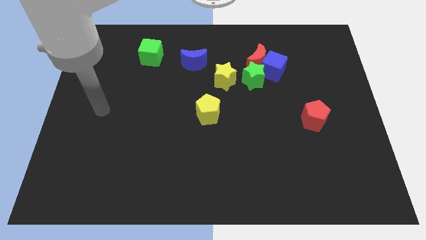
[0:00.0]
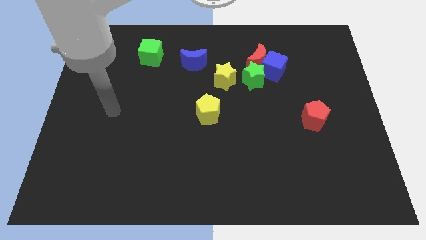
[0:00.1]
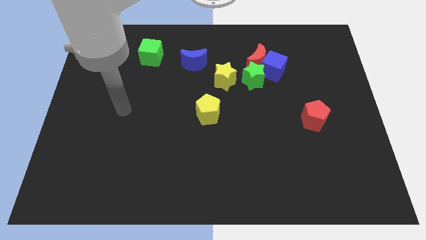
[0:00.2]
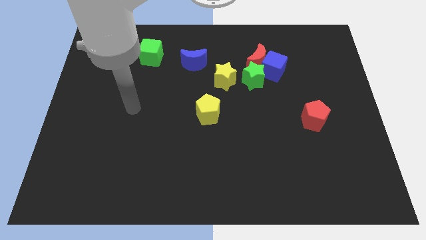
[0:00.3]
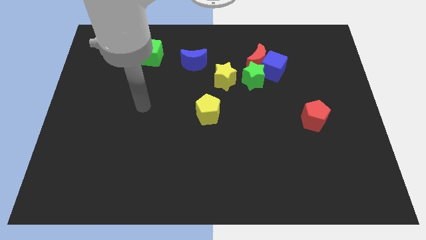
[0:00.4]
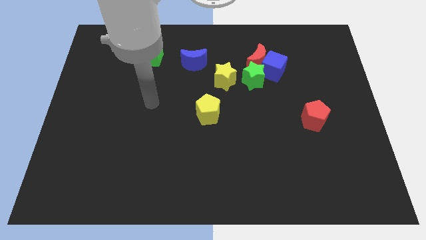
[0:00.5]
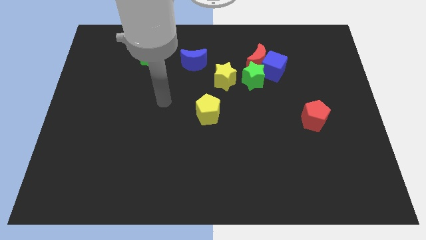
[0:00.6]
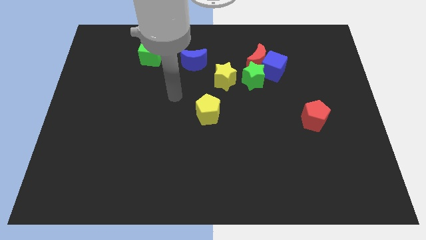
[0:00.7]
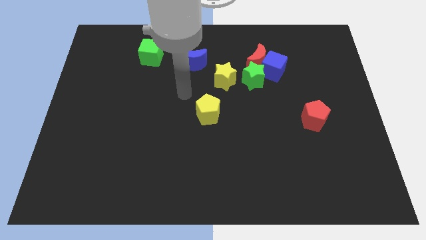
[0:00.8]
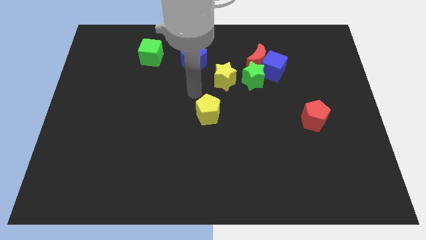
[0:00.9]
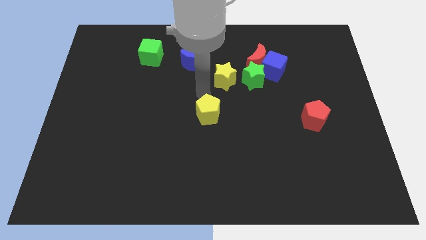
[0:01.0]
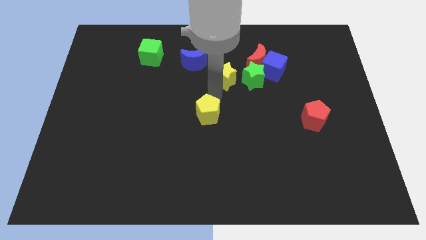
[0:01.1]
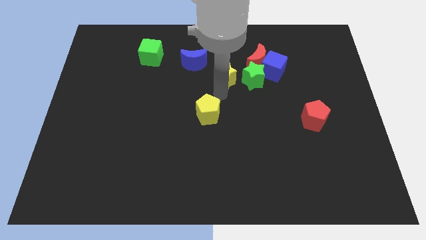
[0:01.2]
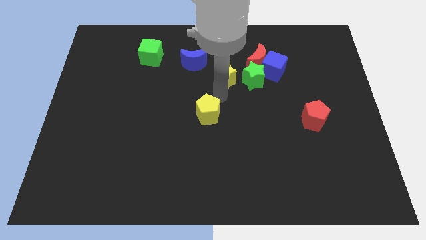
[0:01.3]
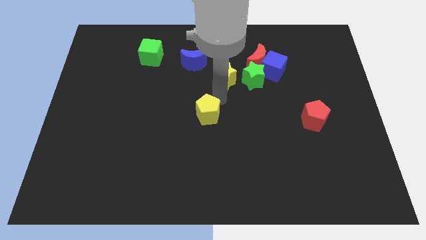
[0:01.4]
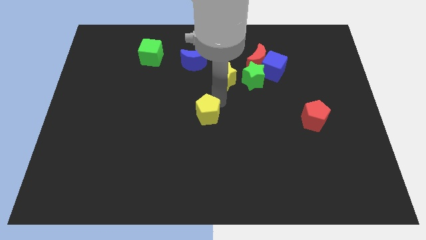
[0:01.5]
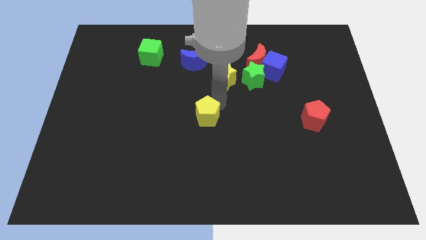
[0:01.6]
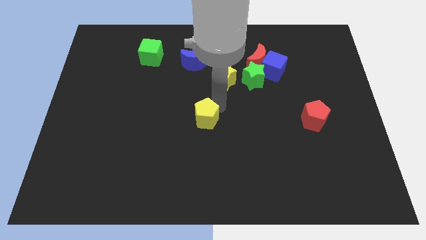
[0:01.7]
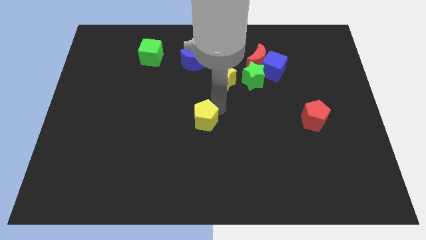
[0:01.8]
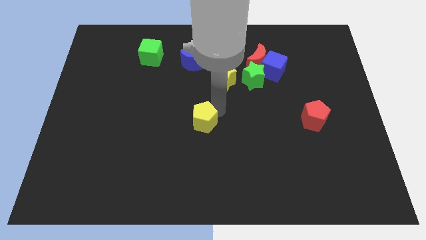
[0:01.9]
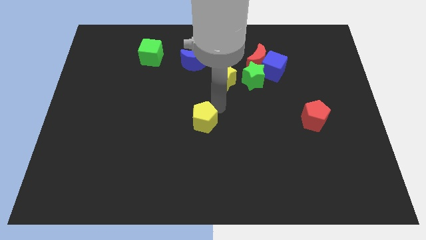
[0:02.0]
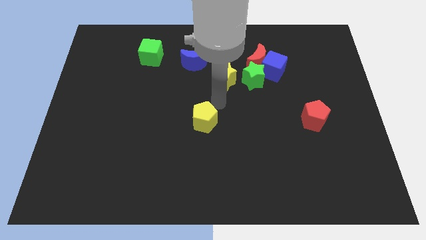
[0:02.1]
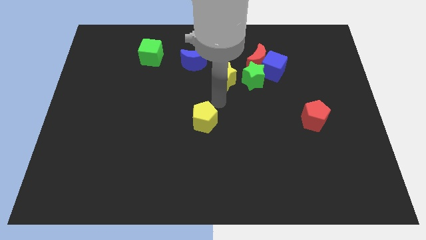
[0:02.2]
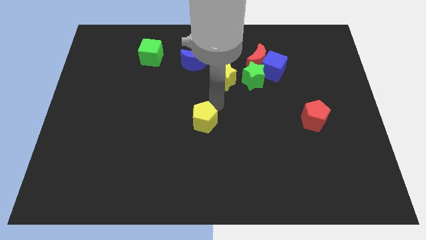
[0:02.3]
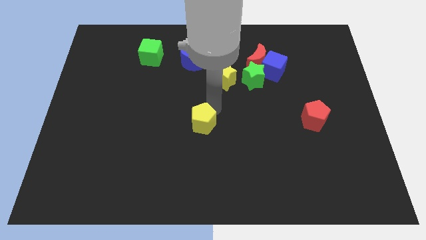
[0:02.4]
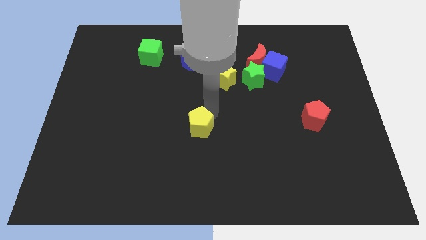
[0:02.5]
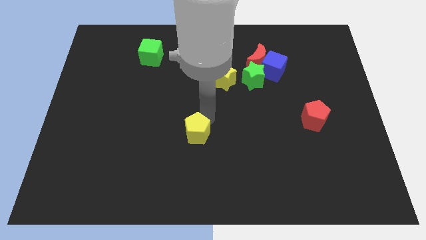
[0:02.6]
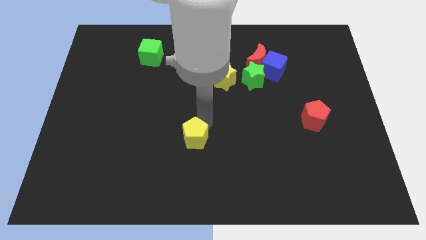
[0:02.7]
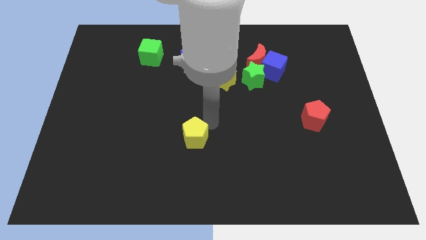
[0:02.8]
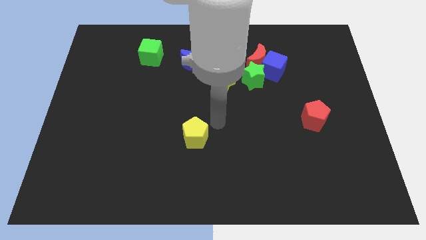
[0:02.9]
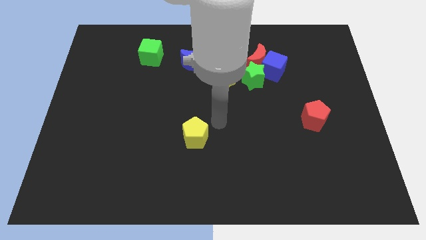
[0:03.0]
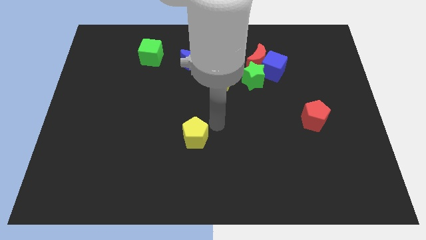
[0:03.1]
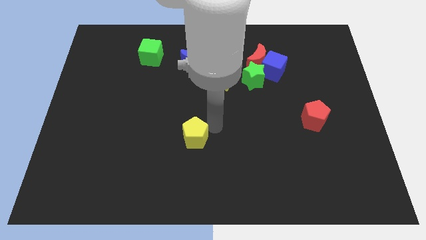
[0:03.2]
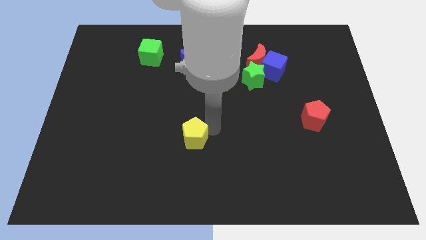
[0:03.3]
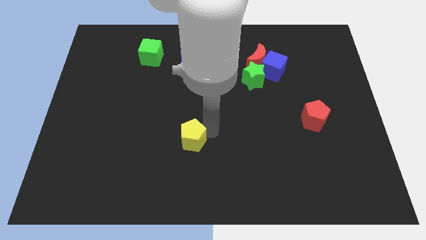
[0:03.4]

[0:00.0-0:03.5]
slide the yellow pentagon slightly down and to the left

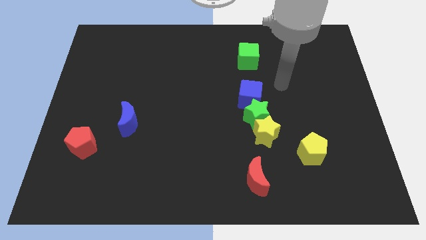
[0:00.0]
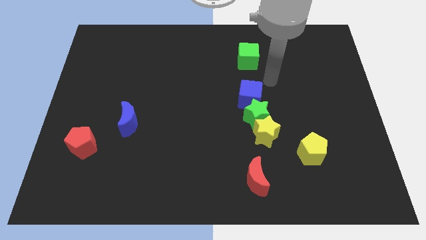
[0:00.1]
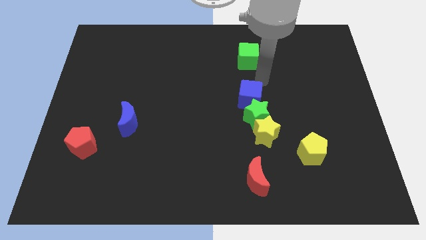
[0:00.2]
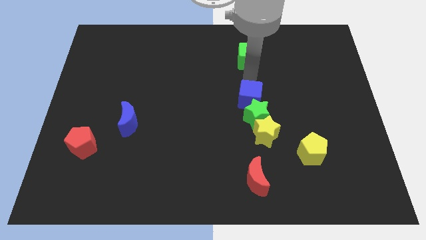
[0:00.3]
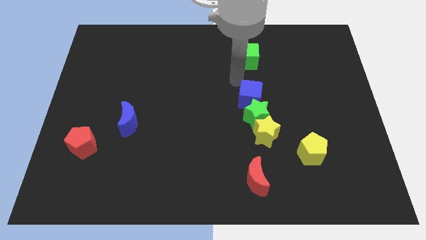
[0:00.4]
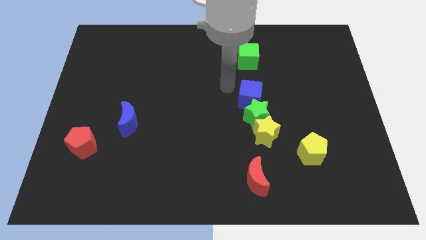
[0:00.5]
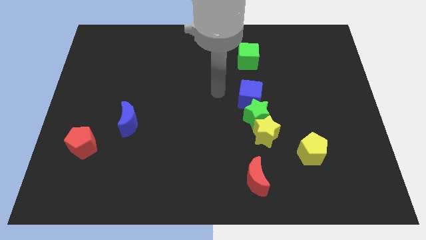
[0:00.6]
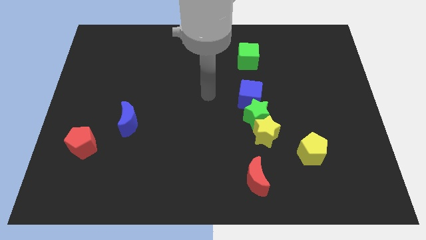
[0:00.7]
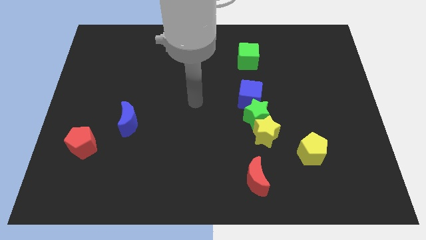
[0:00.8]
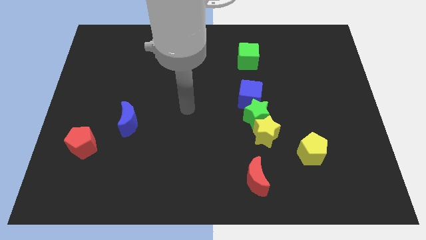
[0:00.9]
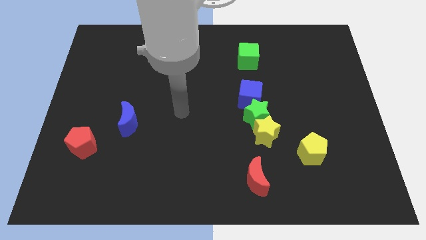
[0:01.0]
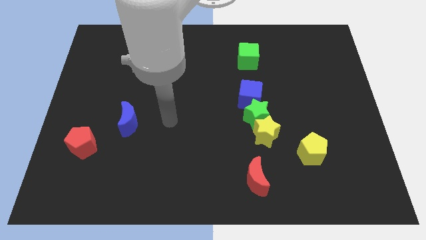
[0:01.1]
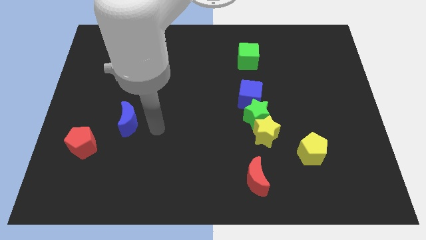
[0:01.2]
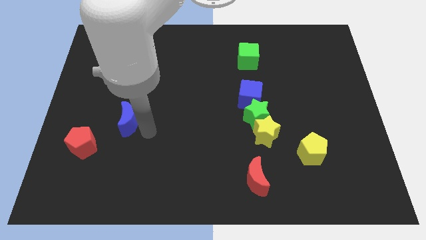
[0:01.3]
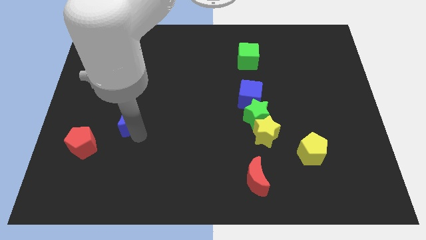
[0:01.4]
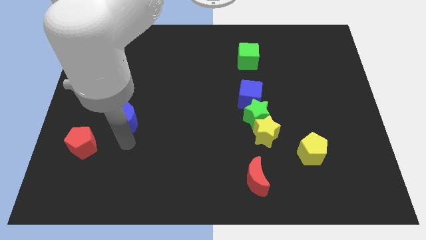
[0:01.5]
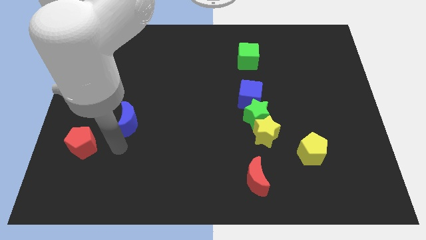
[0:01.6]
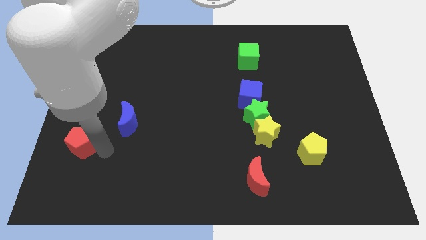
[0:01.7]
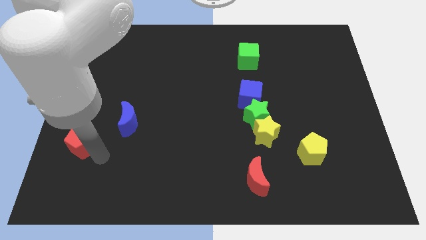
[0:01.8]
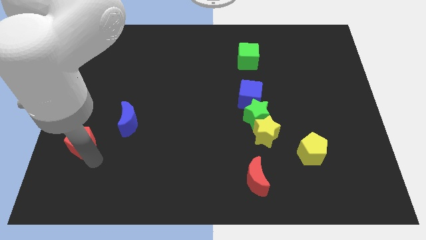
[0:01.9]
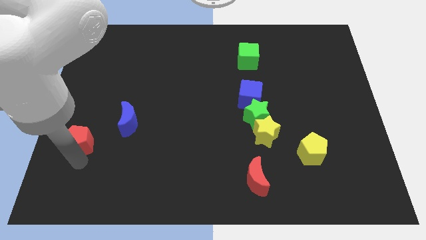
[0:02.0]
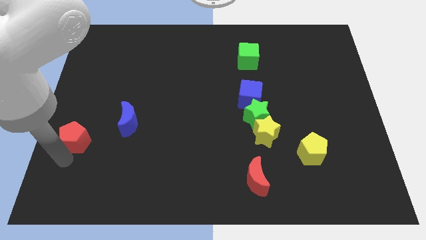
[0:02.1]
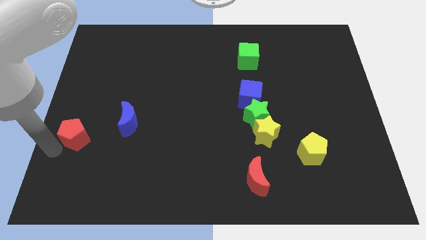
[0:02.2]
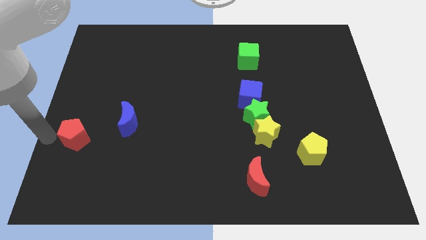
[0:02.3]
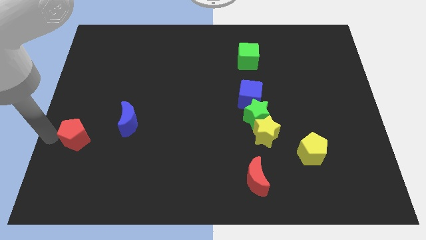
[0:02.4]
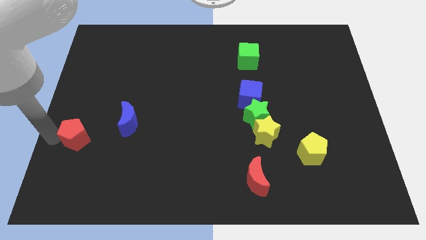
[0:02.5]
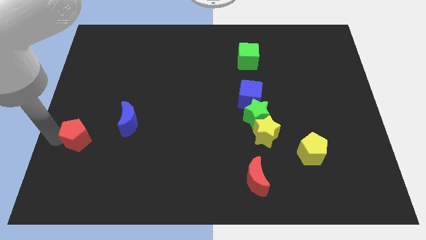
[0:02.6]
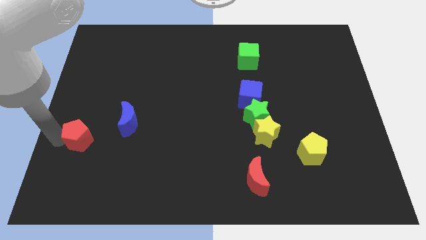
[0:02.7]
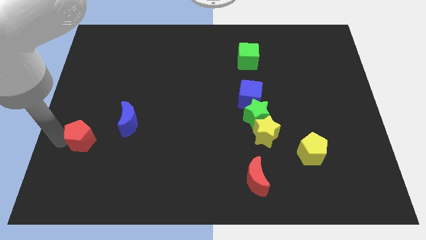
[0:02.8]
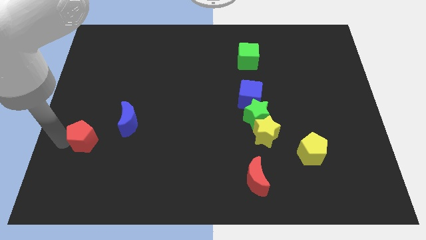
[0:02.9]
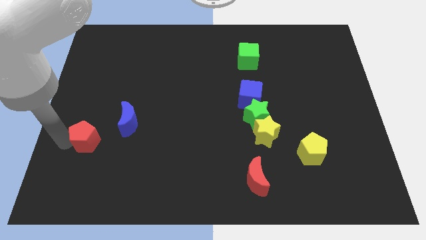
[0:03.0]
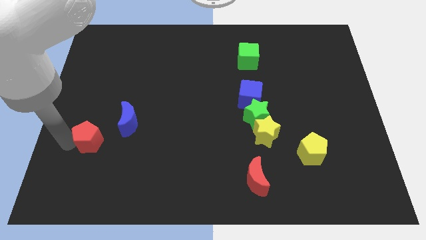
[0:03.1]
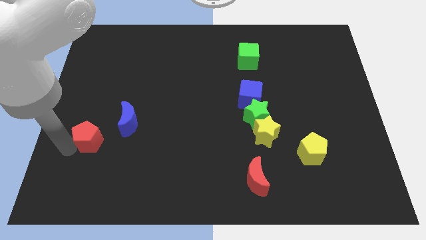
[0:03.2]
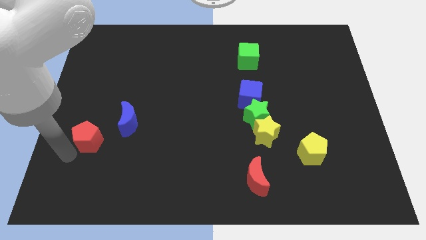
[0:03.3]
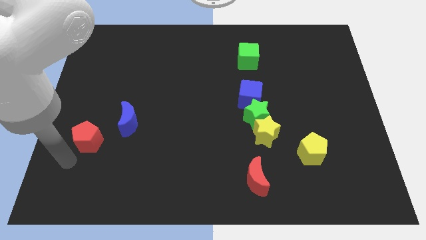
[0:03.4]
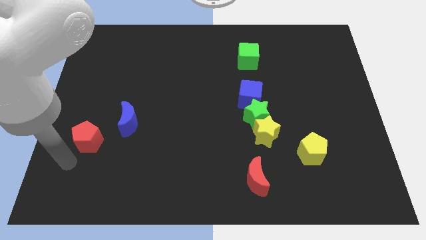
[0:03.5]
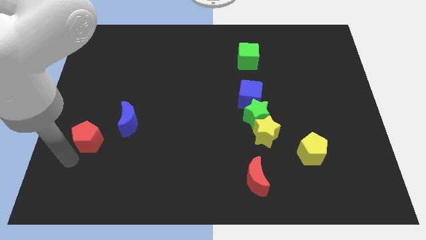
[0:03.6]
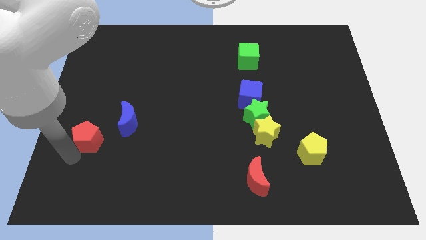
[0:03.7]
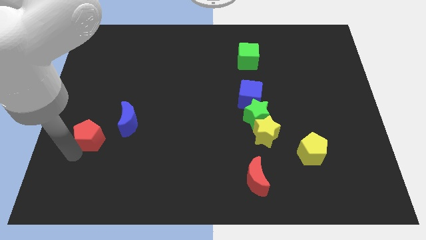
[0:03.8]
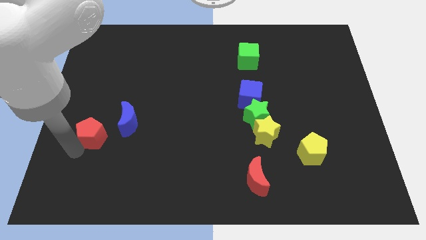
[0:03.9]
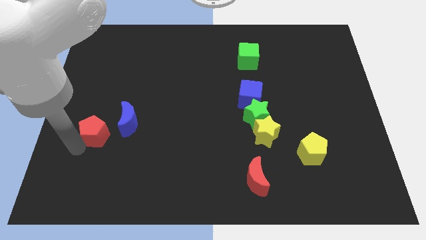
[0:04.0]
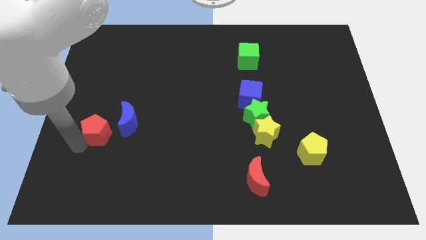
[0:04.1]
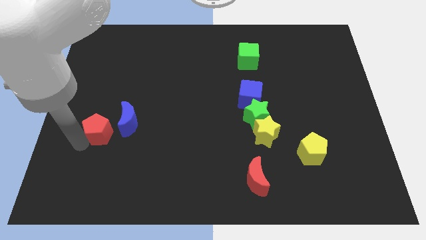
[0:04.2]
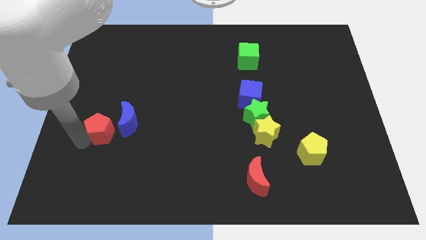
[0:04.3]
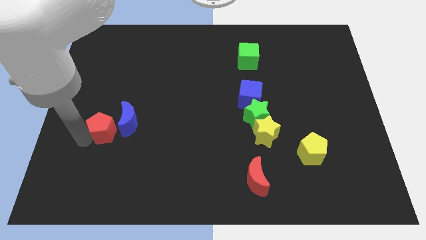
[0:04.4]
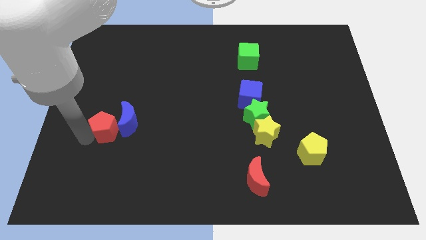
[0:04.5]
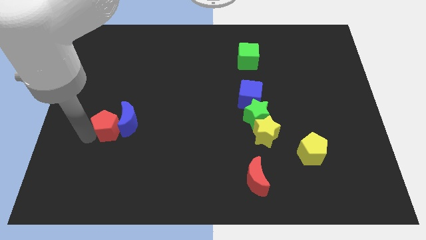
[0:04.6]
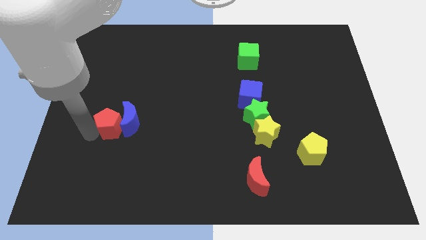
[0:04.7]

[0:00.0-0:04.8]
push the red pentagon diagonally upwards and to the right slightly
